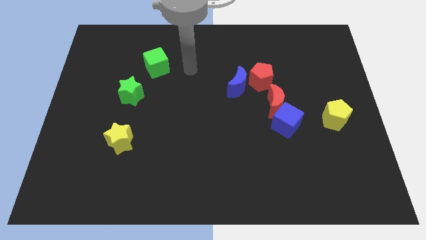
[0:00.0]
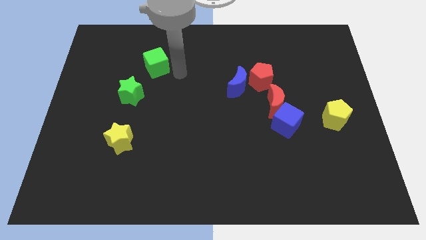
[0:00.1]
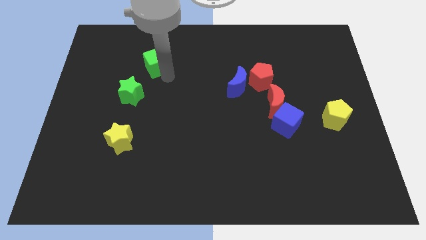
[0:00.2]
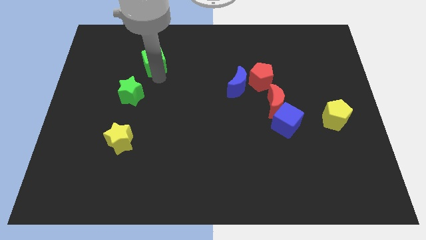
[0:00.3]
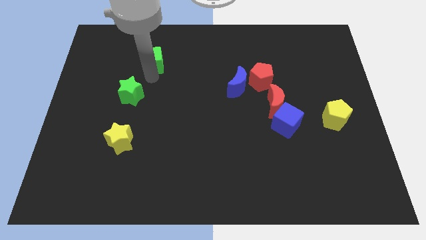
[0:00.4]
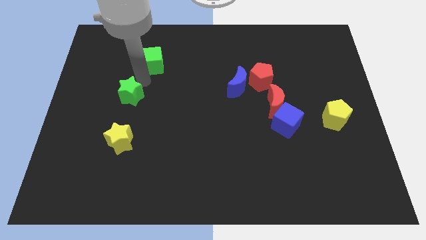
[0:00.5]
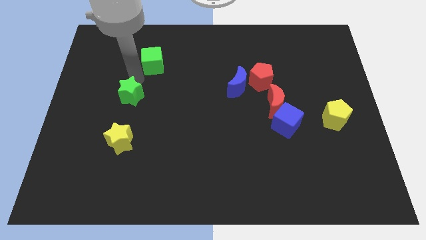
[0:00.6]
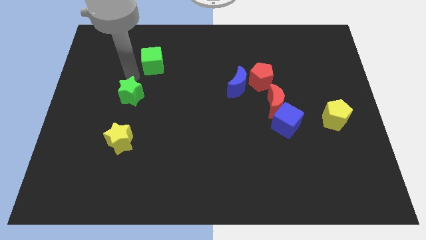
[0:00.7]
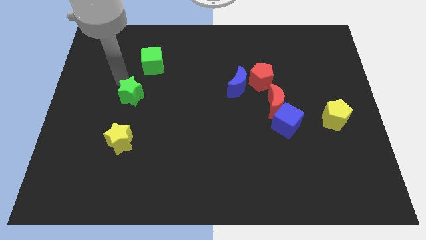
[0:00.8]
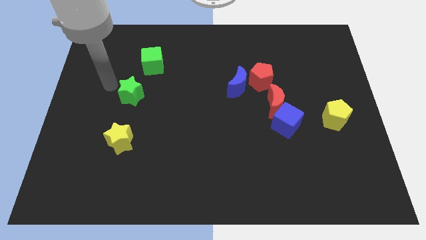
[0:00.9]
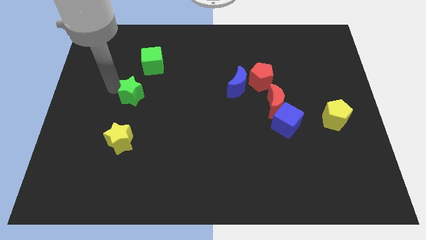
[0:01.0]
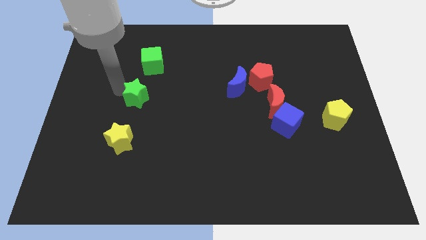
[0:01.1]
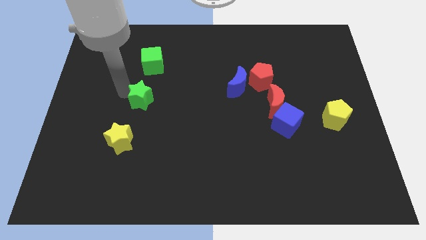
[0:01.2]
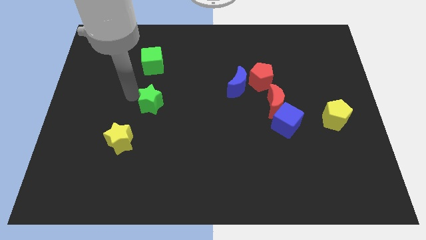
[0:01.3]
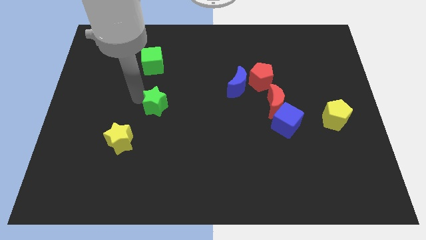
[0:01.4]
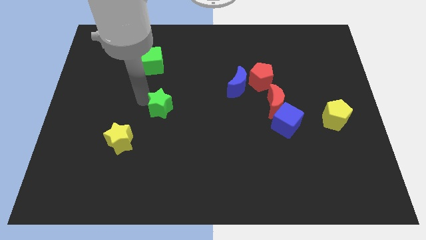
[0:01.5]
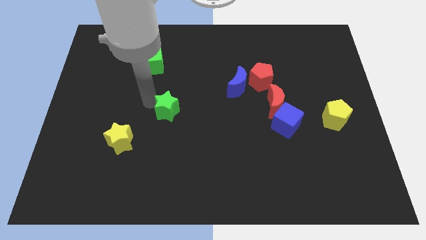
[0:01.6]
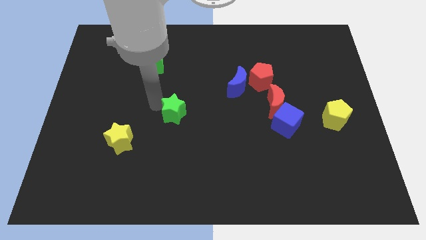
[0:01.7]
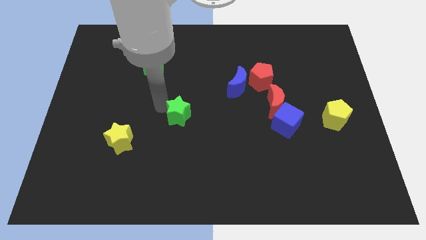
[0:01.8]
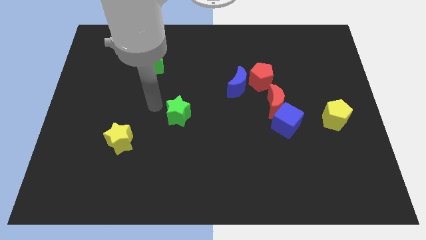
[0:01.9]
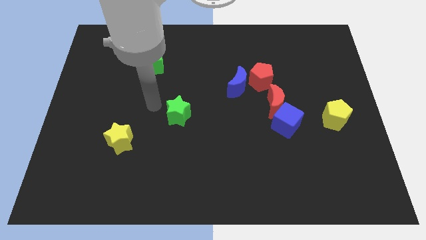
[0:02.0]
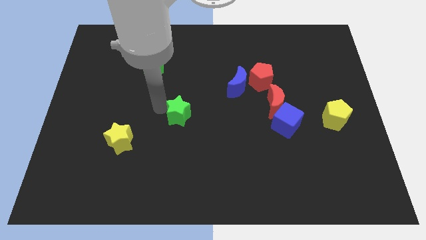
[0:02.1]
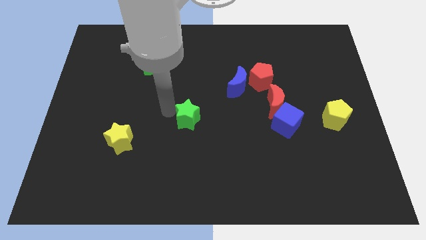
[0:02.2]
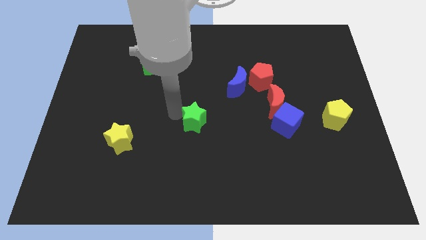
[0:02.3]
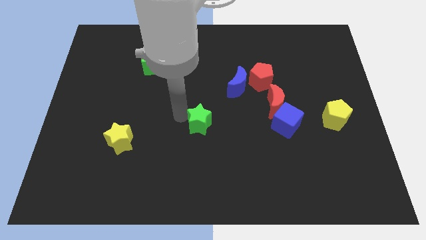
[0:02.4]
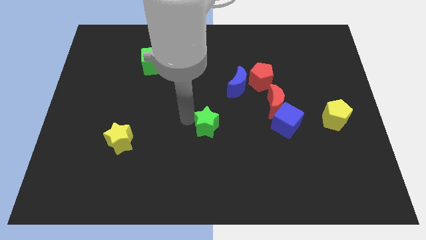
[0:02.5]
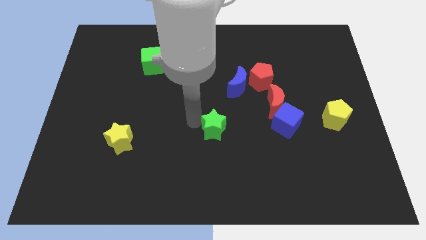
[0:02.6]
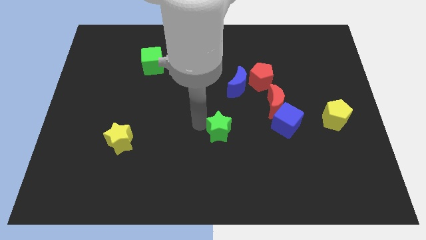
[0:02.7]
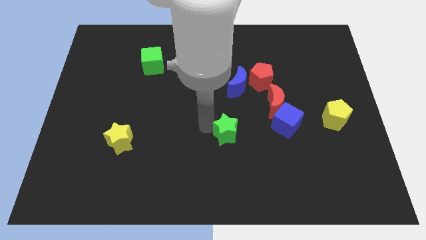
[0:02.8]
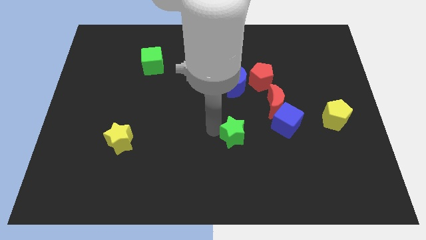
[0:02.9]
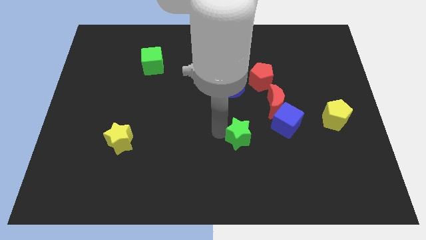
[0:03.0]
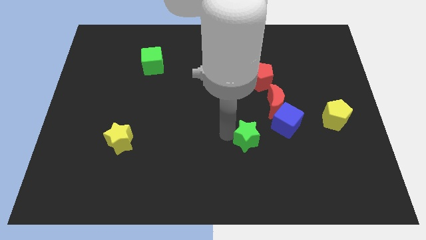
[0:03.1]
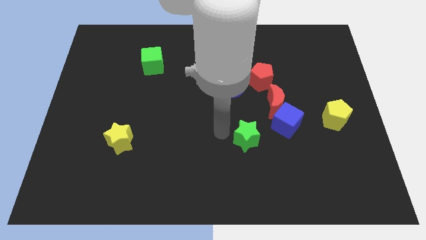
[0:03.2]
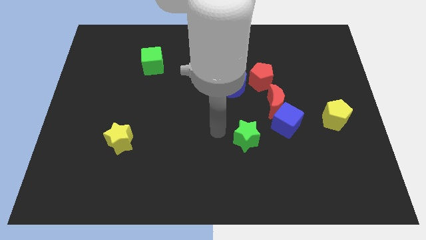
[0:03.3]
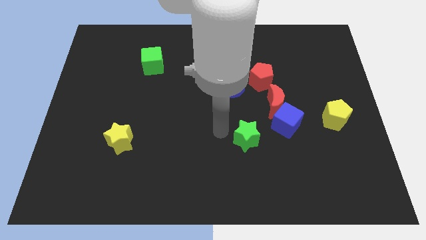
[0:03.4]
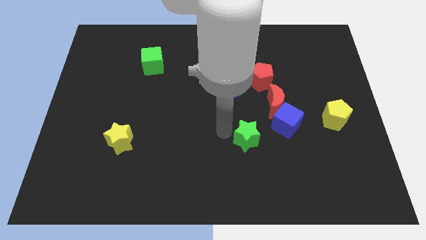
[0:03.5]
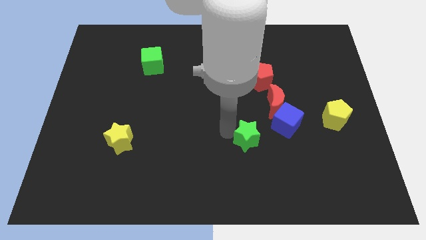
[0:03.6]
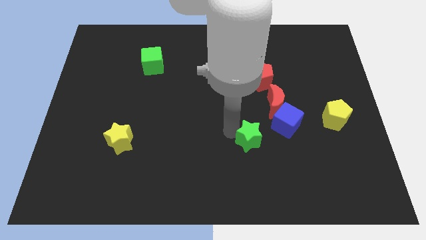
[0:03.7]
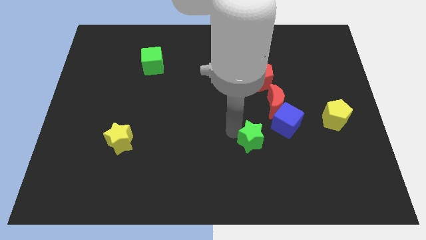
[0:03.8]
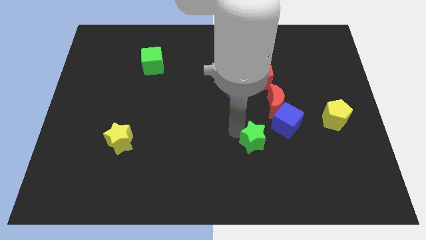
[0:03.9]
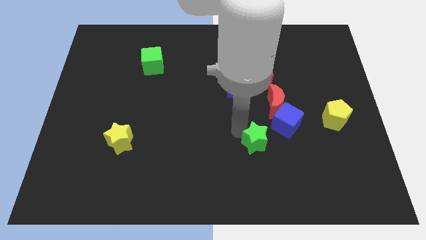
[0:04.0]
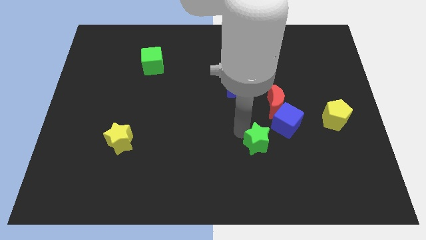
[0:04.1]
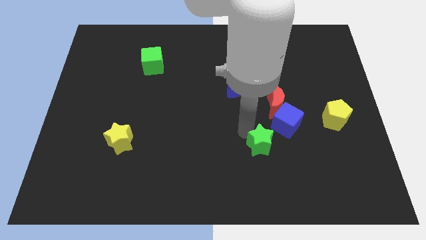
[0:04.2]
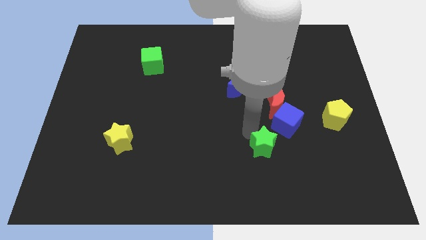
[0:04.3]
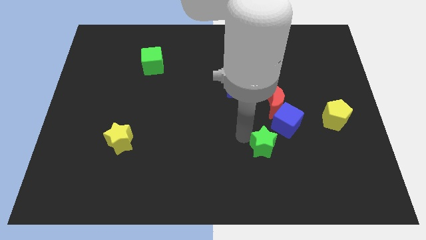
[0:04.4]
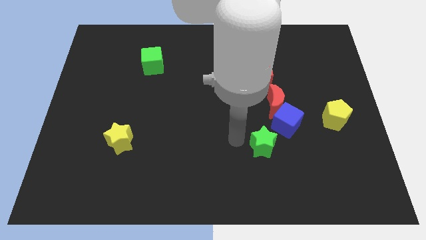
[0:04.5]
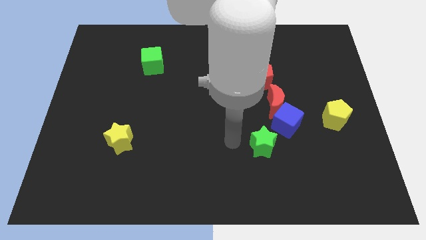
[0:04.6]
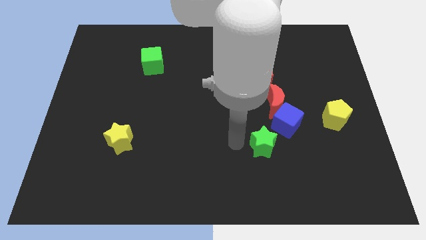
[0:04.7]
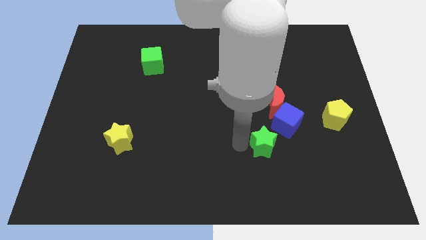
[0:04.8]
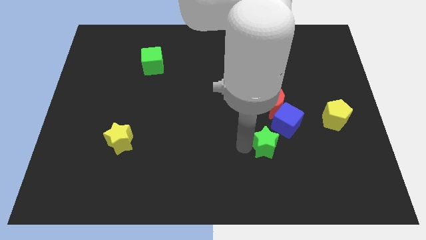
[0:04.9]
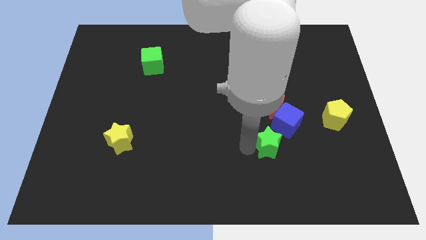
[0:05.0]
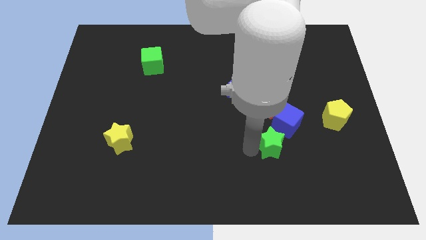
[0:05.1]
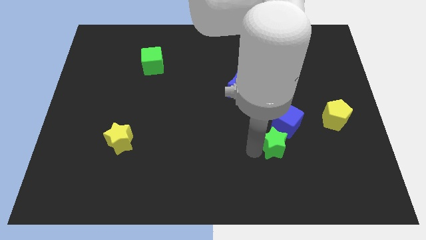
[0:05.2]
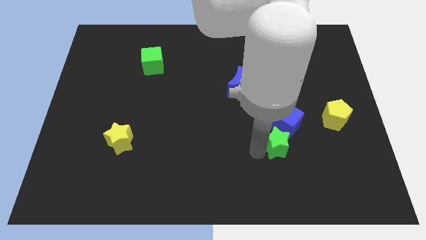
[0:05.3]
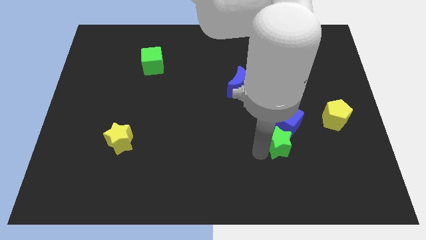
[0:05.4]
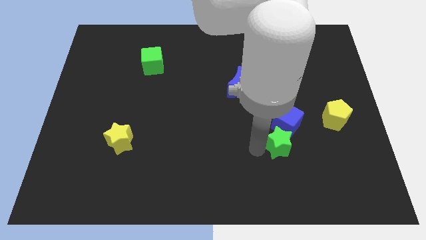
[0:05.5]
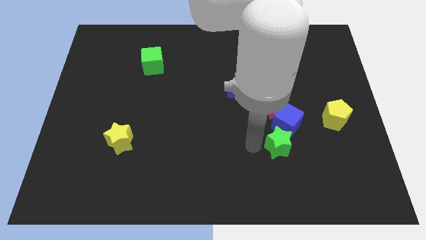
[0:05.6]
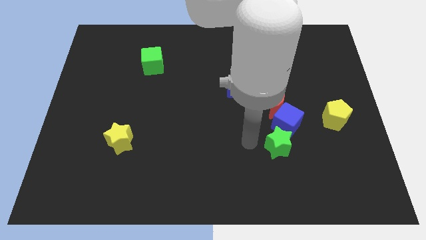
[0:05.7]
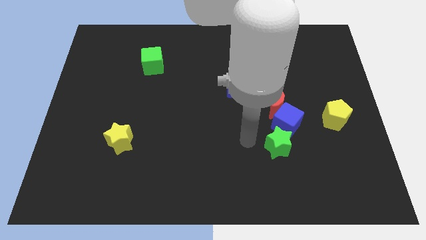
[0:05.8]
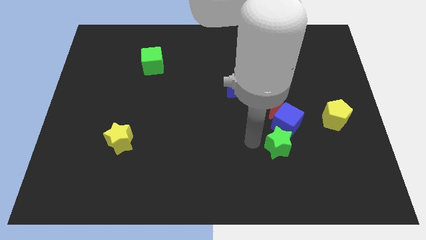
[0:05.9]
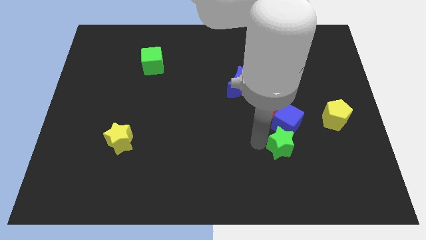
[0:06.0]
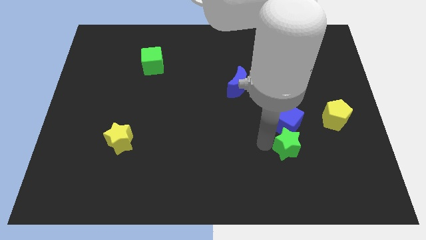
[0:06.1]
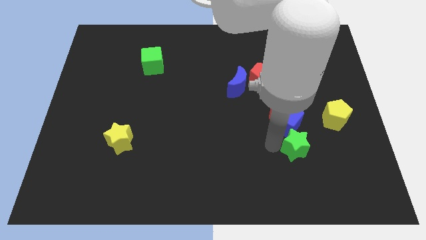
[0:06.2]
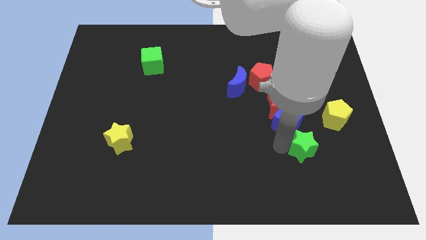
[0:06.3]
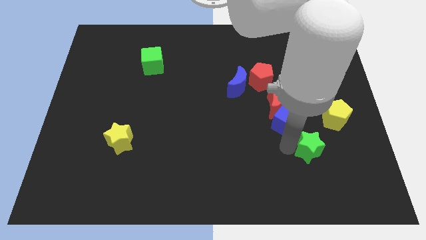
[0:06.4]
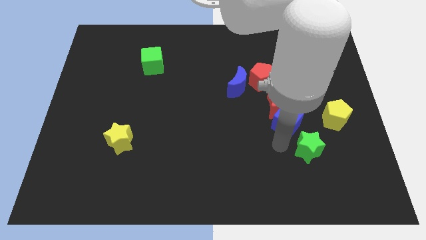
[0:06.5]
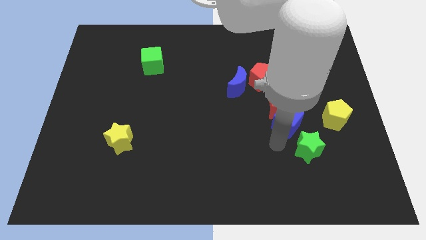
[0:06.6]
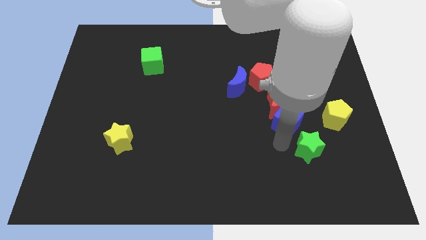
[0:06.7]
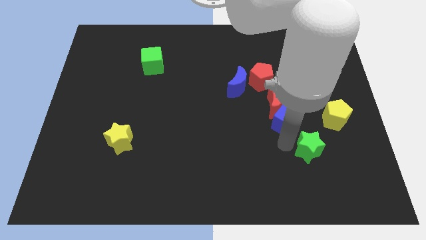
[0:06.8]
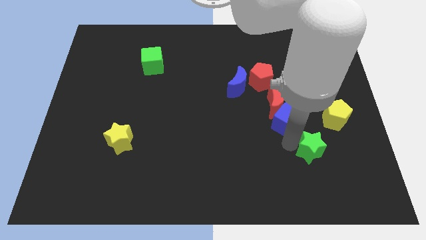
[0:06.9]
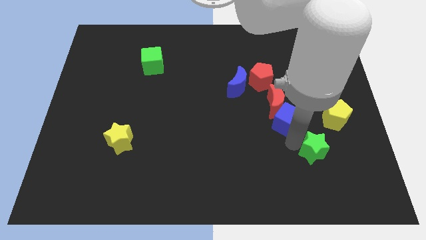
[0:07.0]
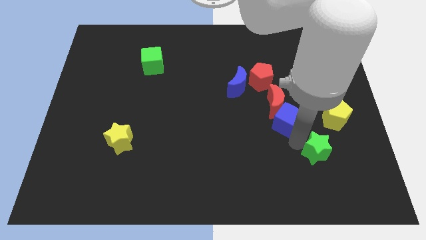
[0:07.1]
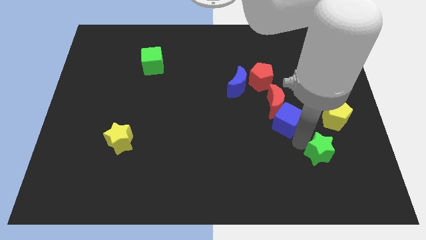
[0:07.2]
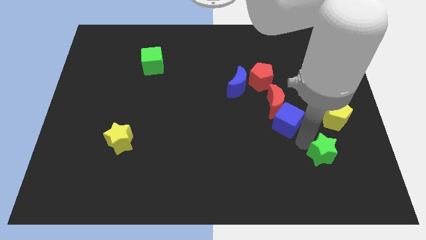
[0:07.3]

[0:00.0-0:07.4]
slide the green star below the yellow pentagon
